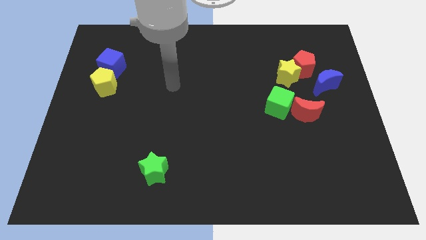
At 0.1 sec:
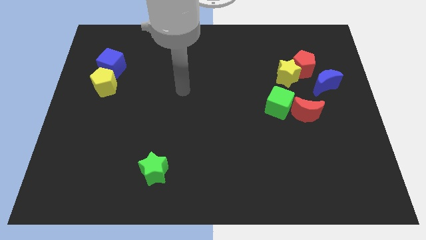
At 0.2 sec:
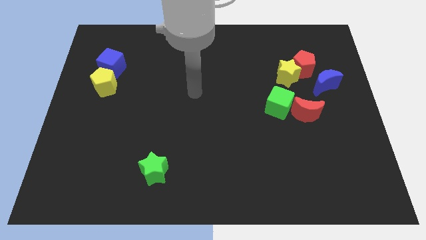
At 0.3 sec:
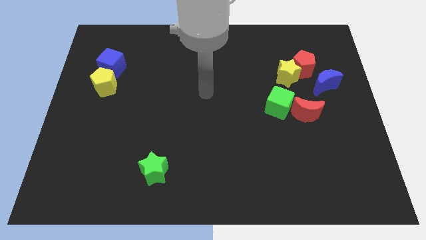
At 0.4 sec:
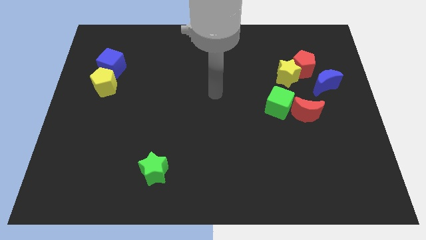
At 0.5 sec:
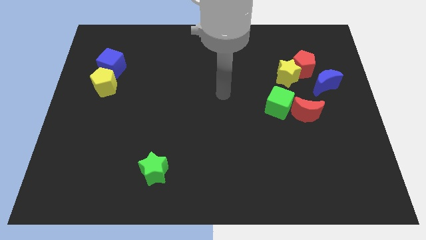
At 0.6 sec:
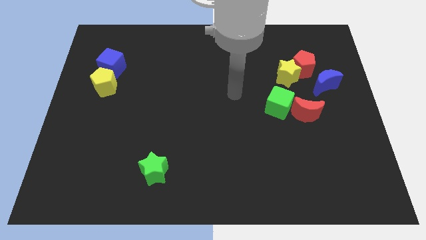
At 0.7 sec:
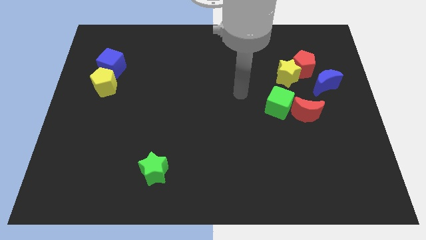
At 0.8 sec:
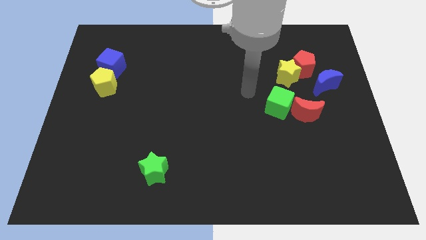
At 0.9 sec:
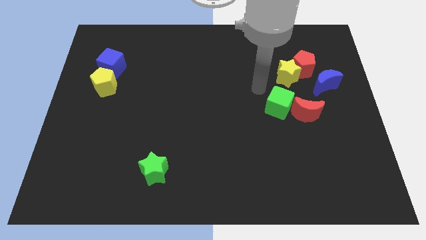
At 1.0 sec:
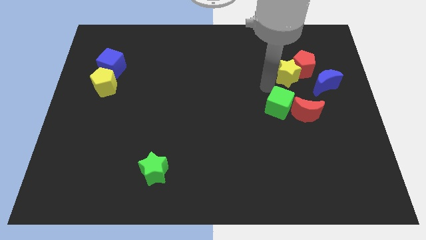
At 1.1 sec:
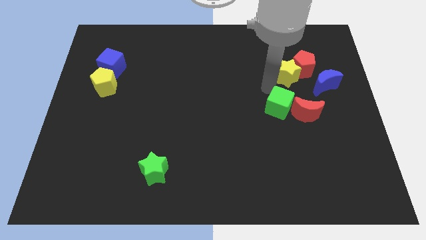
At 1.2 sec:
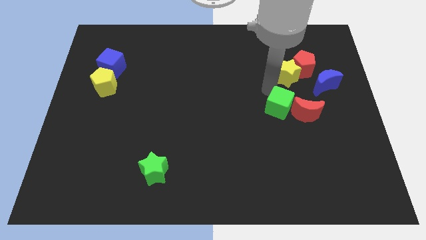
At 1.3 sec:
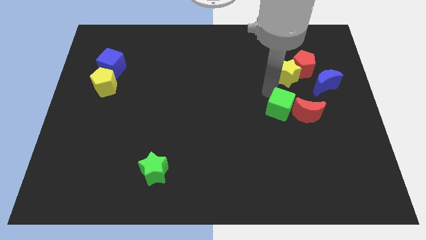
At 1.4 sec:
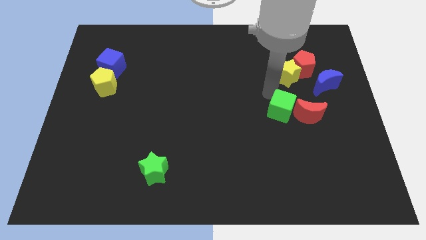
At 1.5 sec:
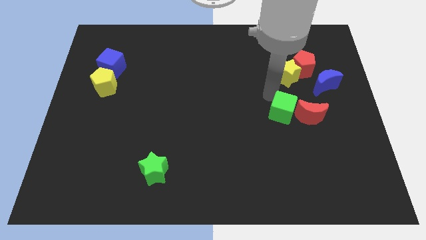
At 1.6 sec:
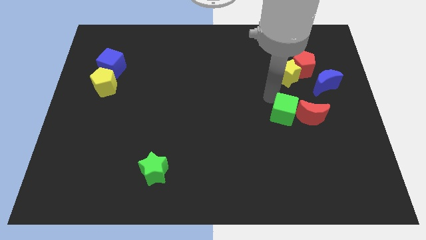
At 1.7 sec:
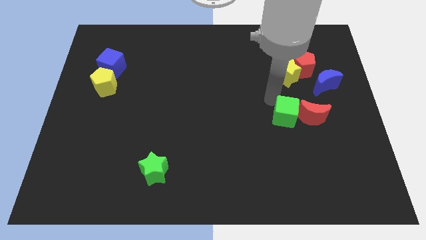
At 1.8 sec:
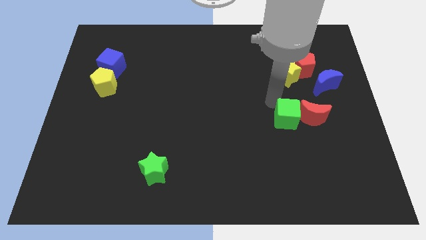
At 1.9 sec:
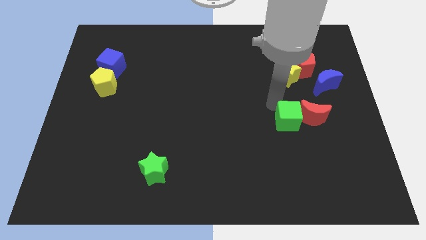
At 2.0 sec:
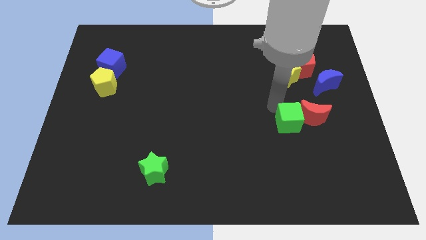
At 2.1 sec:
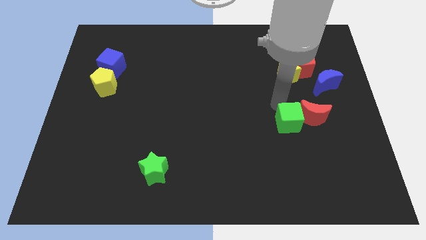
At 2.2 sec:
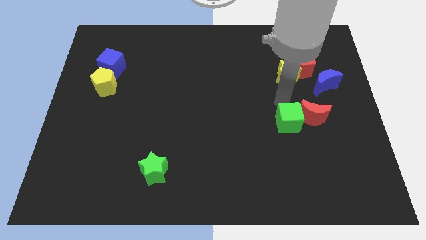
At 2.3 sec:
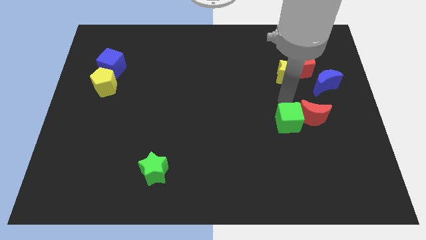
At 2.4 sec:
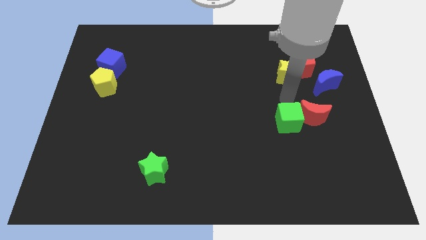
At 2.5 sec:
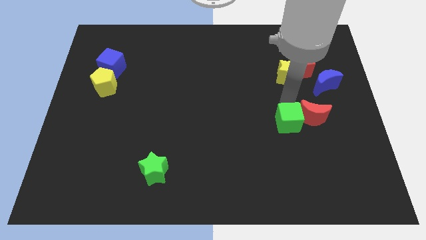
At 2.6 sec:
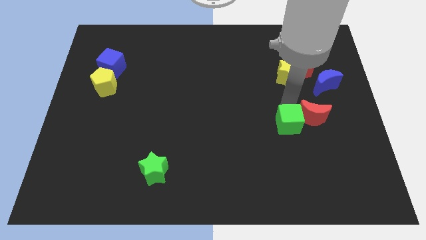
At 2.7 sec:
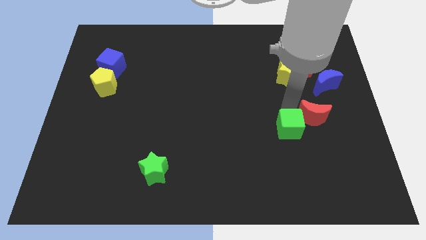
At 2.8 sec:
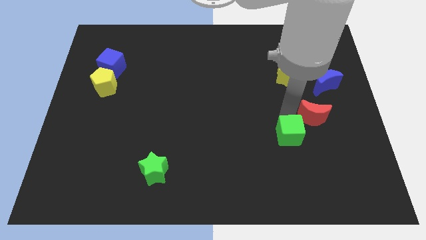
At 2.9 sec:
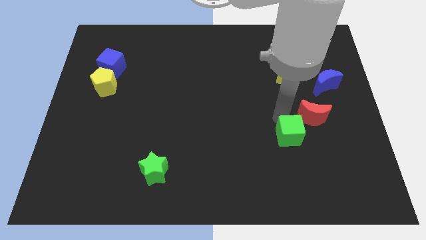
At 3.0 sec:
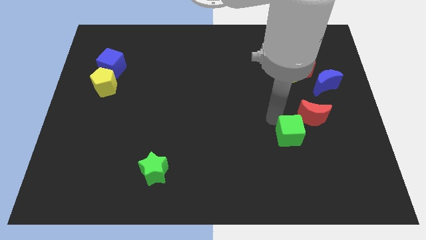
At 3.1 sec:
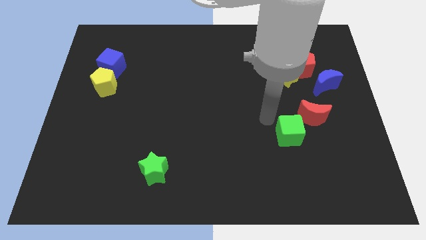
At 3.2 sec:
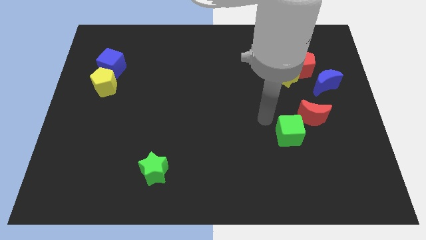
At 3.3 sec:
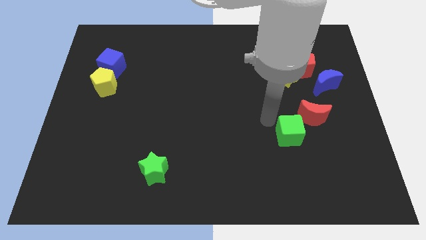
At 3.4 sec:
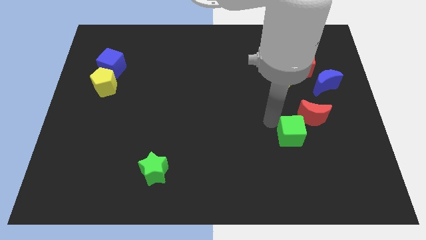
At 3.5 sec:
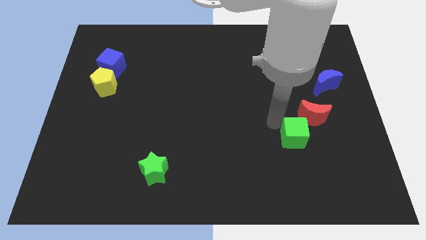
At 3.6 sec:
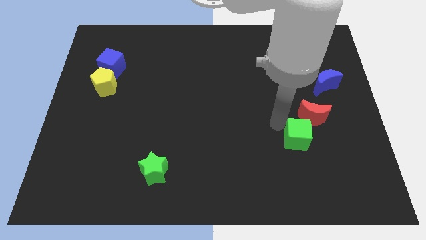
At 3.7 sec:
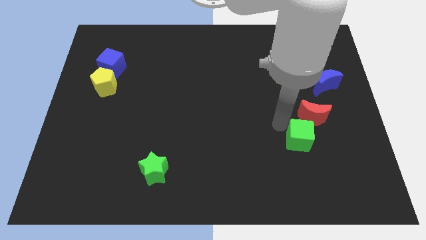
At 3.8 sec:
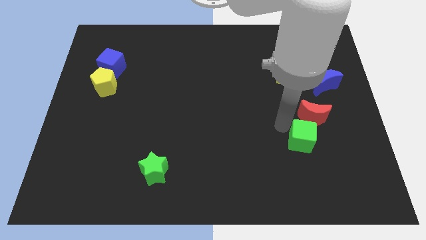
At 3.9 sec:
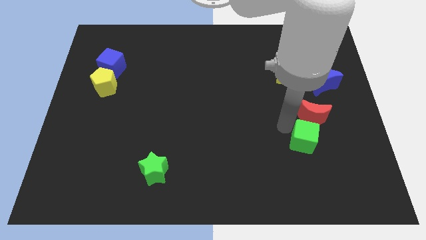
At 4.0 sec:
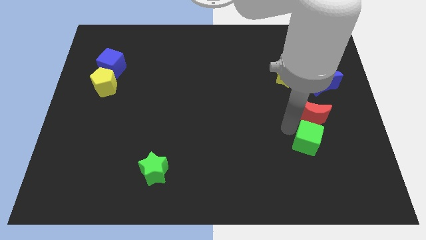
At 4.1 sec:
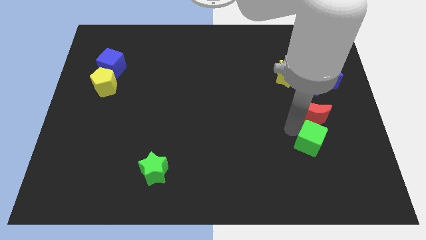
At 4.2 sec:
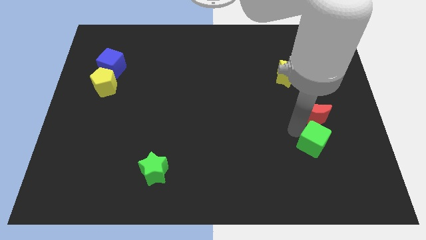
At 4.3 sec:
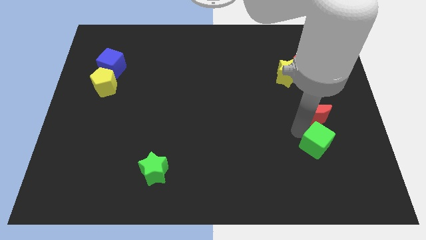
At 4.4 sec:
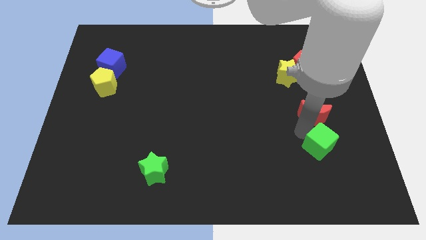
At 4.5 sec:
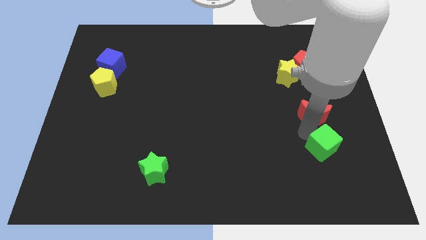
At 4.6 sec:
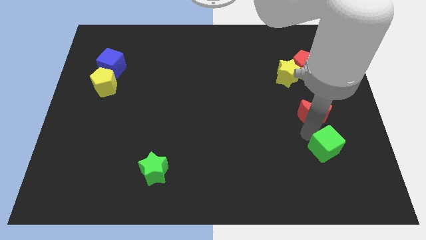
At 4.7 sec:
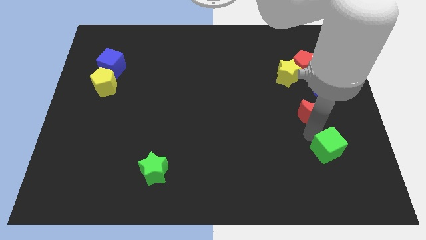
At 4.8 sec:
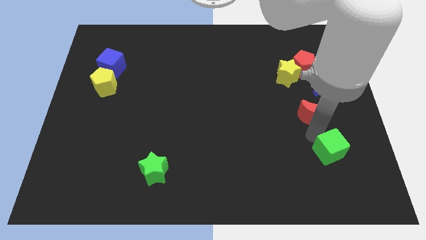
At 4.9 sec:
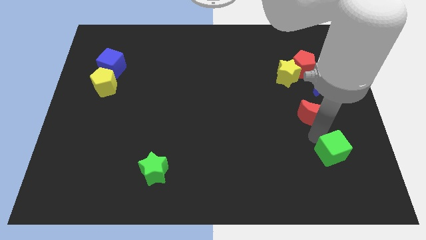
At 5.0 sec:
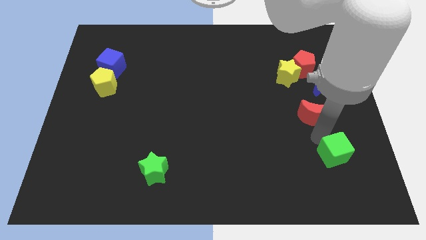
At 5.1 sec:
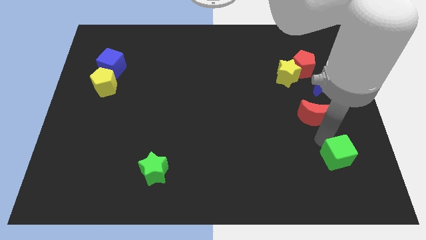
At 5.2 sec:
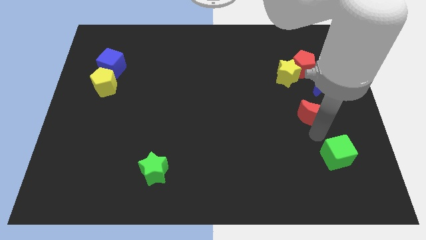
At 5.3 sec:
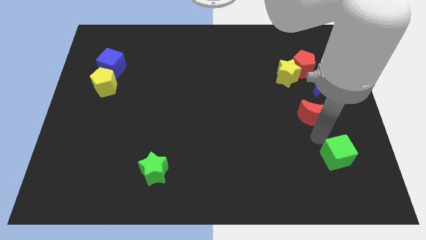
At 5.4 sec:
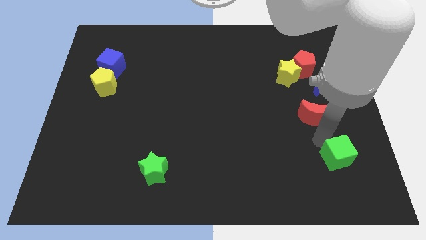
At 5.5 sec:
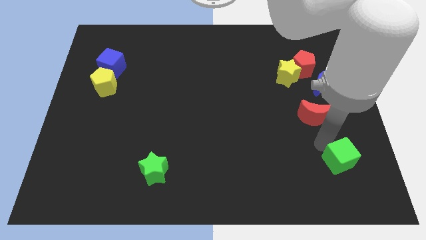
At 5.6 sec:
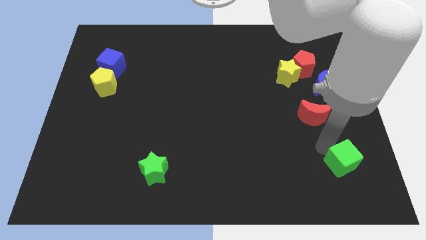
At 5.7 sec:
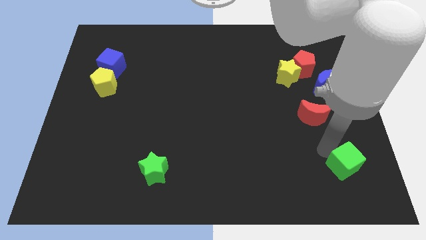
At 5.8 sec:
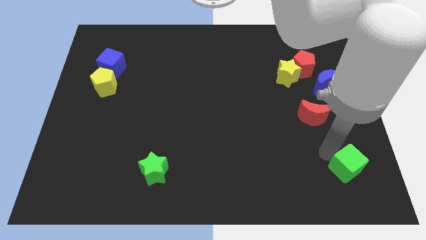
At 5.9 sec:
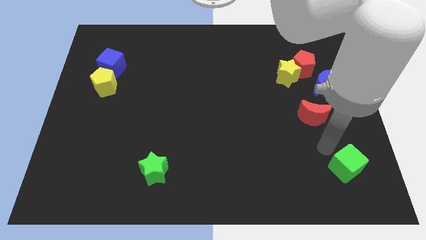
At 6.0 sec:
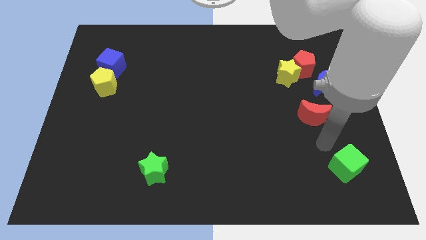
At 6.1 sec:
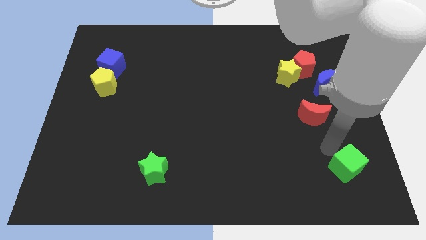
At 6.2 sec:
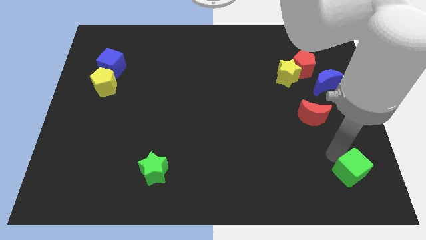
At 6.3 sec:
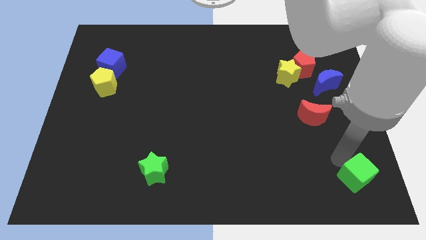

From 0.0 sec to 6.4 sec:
push the green cube to the bottom right
